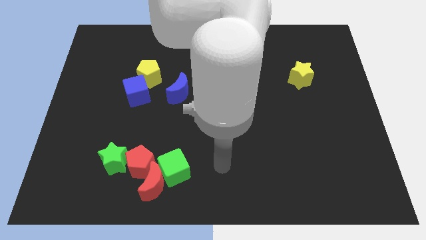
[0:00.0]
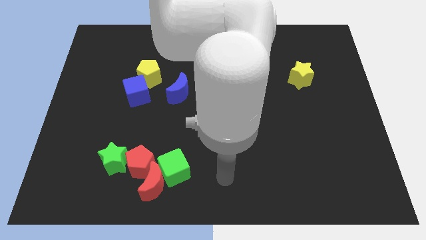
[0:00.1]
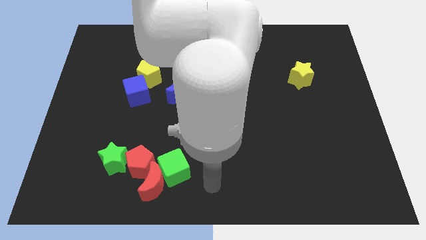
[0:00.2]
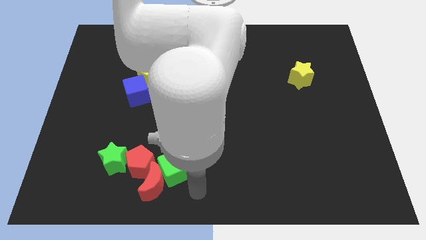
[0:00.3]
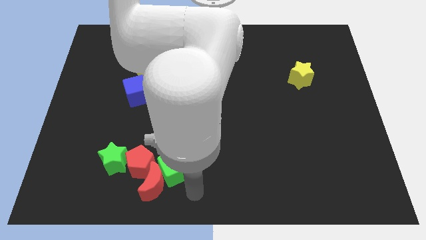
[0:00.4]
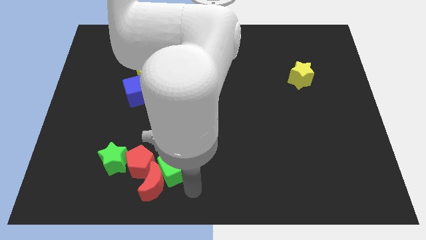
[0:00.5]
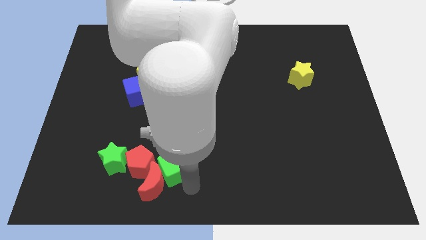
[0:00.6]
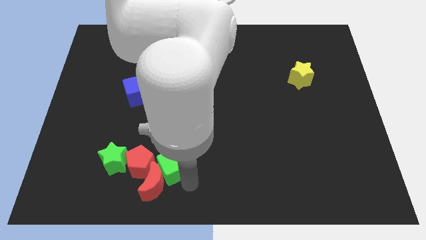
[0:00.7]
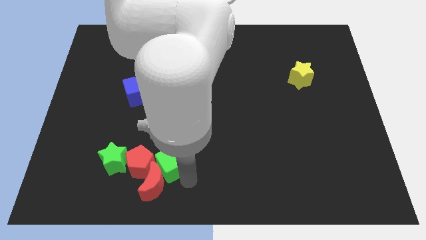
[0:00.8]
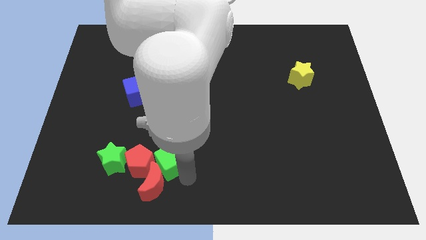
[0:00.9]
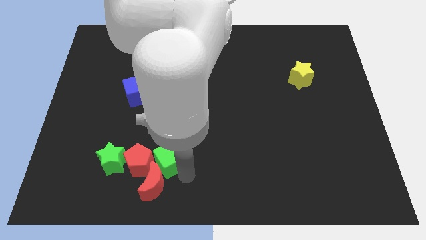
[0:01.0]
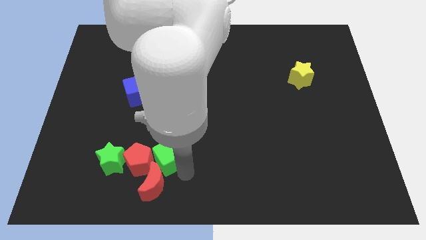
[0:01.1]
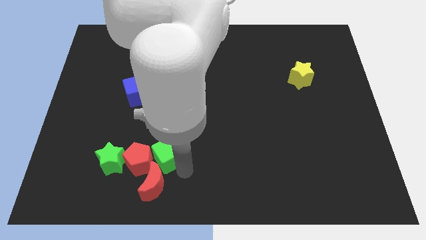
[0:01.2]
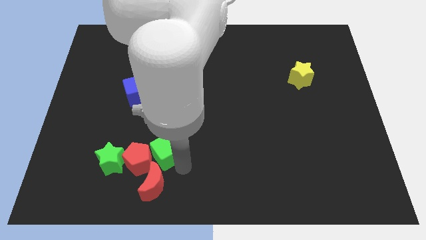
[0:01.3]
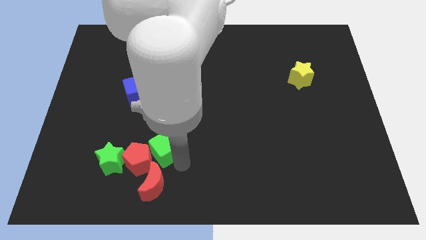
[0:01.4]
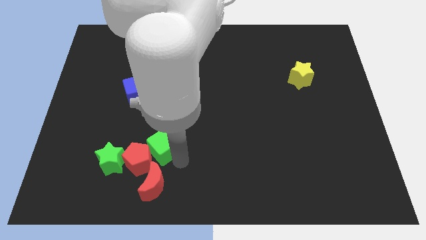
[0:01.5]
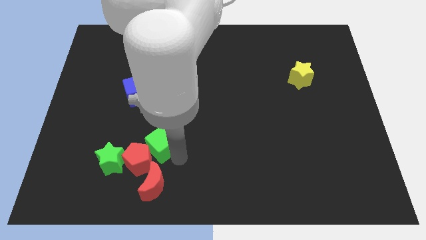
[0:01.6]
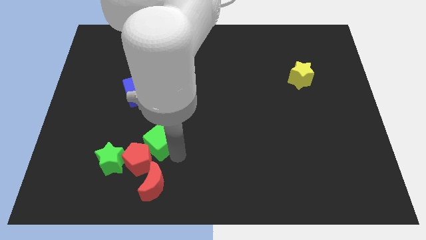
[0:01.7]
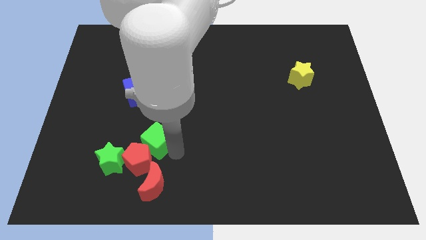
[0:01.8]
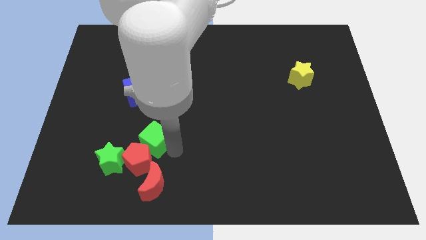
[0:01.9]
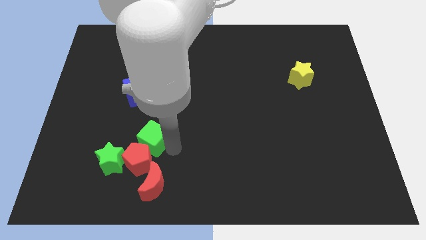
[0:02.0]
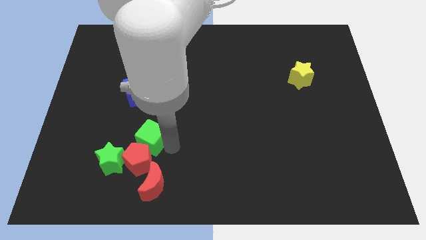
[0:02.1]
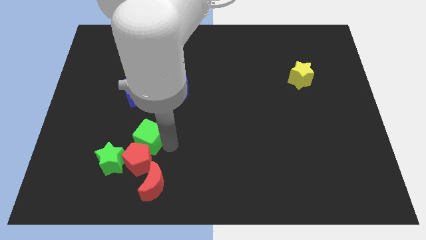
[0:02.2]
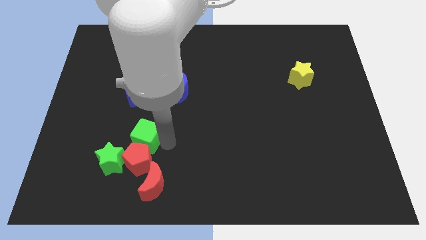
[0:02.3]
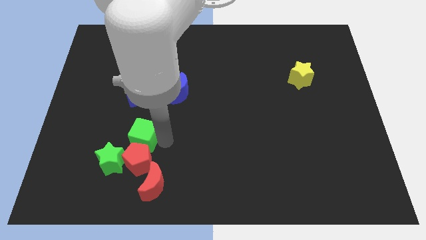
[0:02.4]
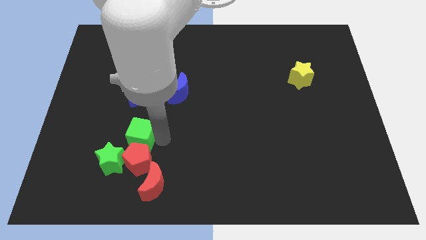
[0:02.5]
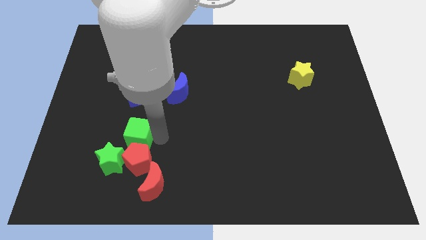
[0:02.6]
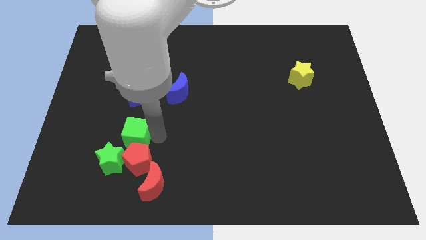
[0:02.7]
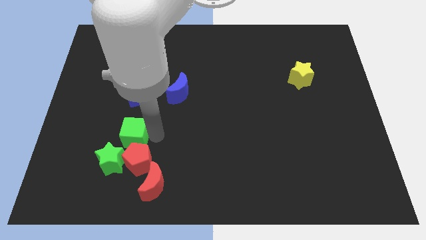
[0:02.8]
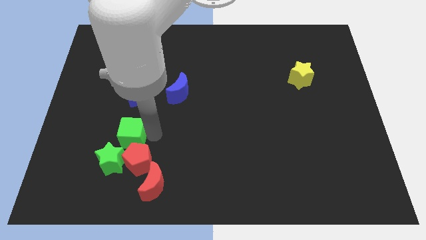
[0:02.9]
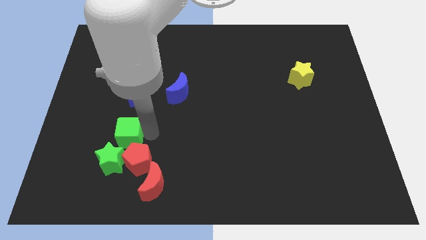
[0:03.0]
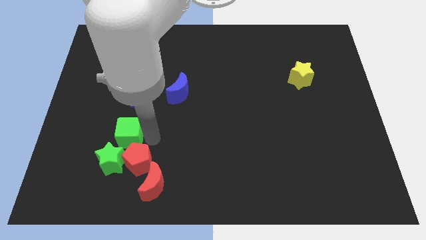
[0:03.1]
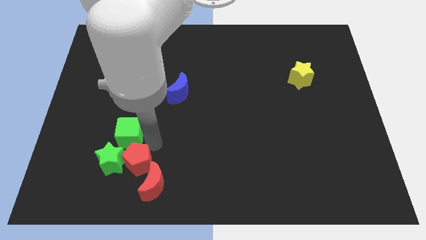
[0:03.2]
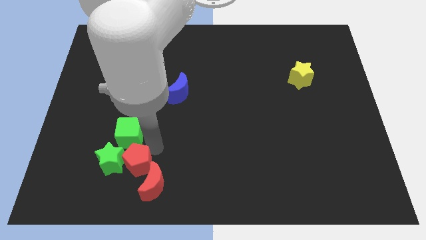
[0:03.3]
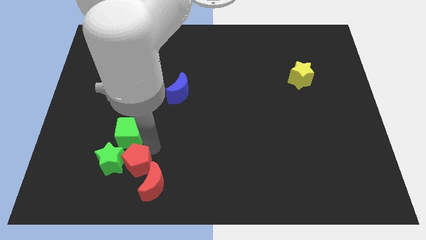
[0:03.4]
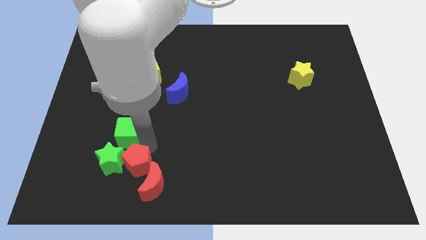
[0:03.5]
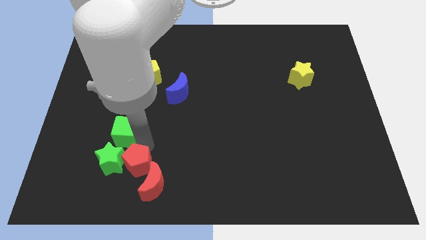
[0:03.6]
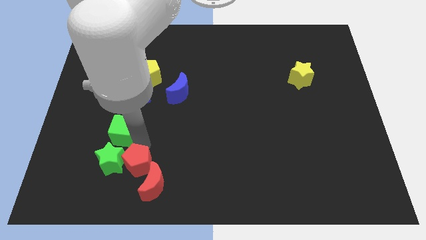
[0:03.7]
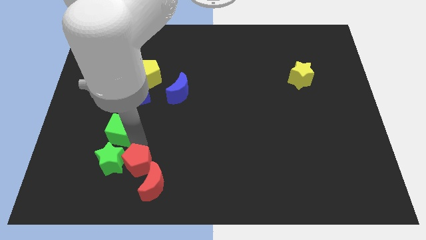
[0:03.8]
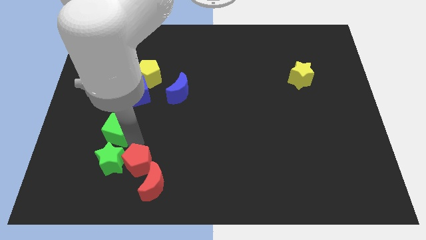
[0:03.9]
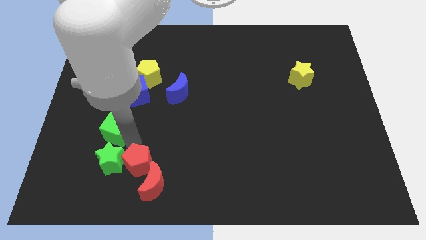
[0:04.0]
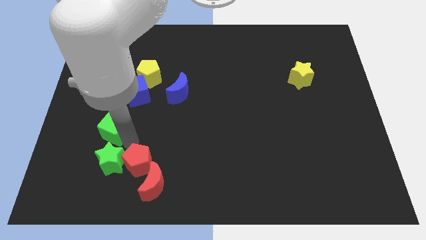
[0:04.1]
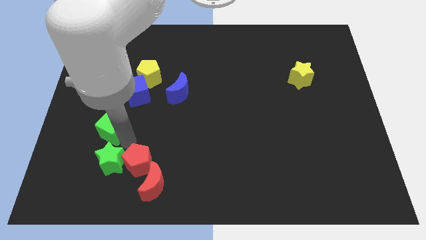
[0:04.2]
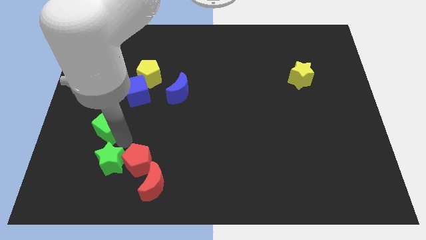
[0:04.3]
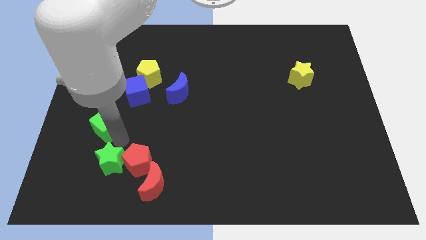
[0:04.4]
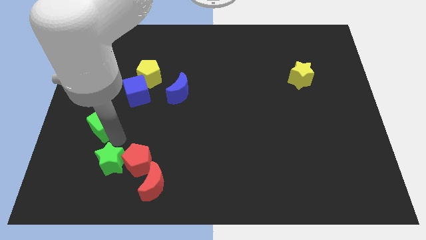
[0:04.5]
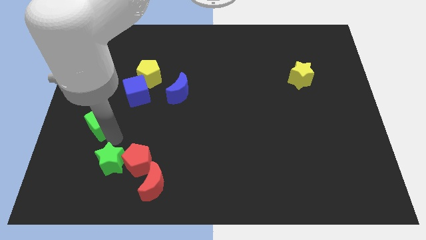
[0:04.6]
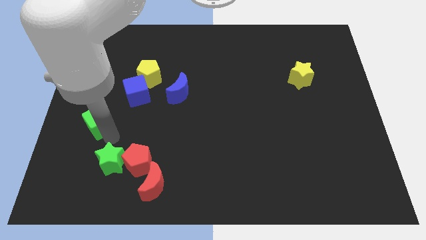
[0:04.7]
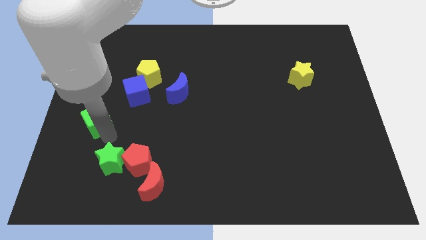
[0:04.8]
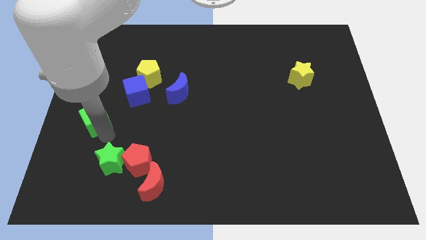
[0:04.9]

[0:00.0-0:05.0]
put the green cube to the left side

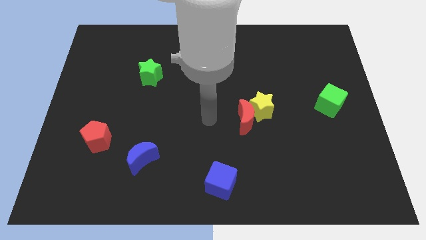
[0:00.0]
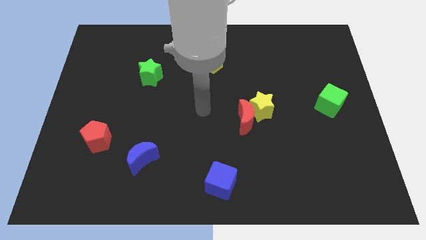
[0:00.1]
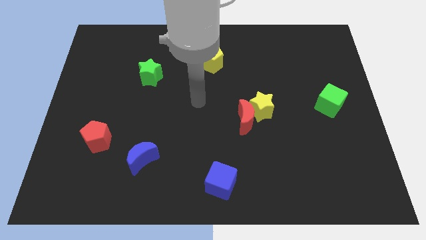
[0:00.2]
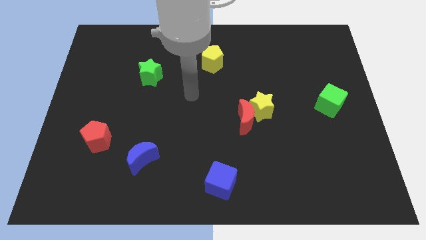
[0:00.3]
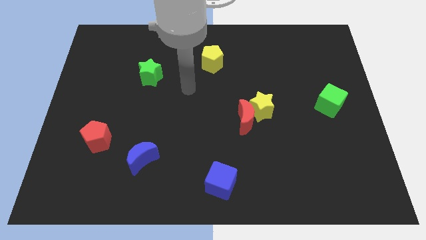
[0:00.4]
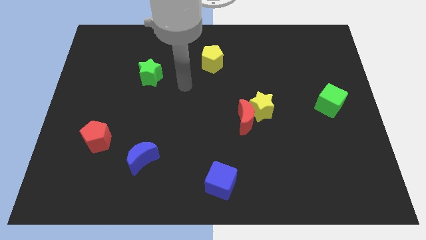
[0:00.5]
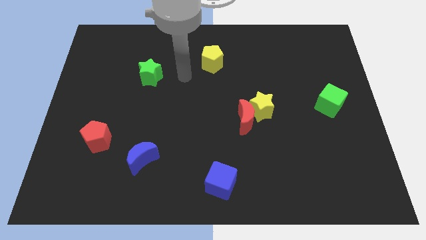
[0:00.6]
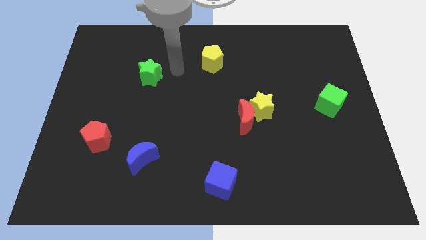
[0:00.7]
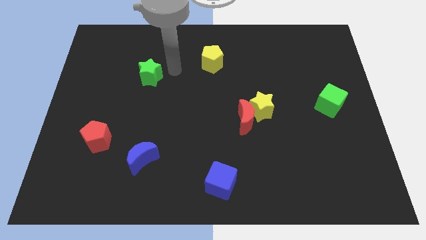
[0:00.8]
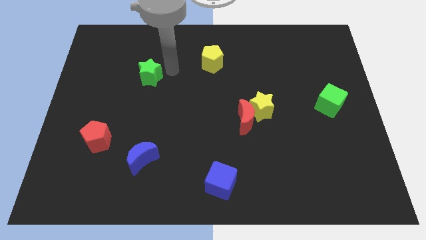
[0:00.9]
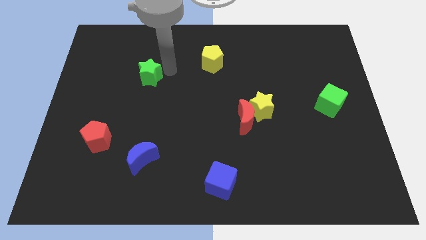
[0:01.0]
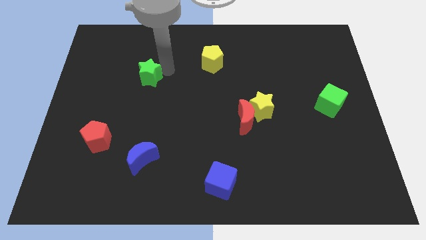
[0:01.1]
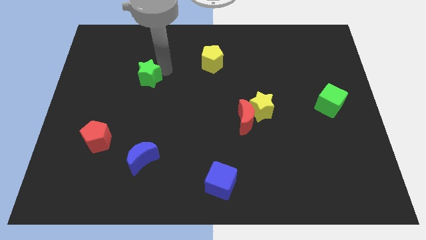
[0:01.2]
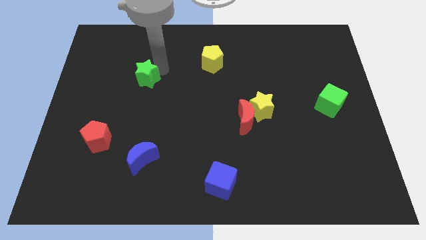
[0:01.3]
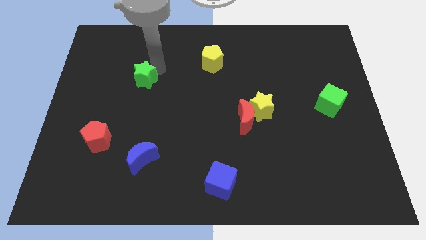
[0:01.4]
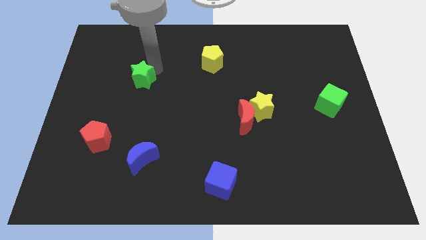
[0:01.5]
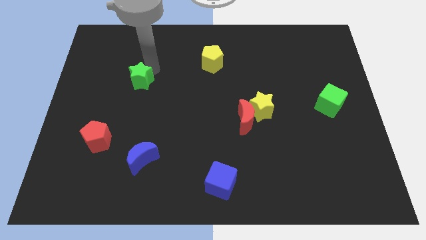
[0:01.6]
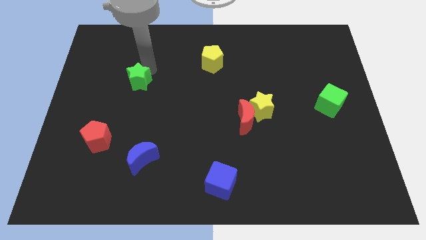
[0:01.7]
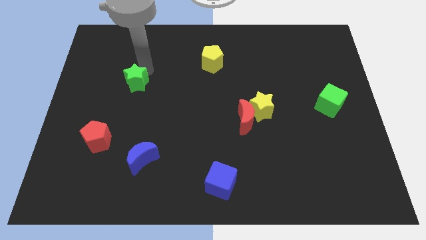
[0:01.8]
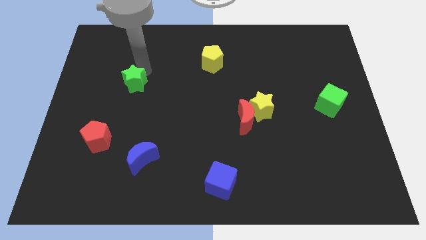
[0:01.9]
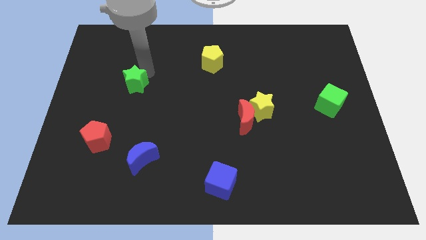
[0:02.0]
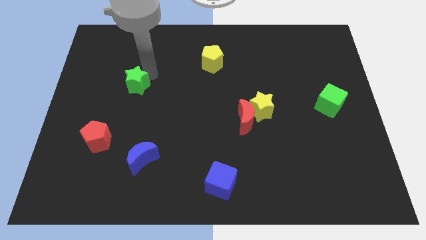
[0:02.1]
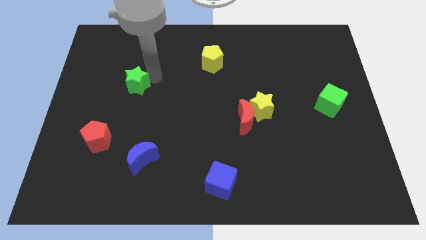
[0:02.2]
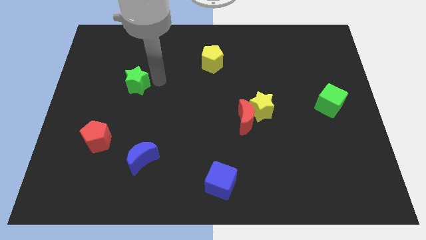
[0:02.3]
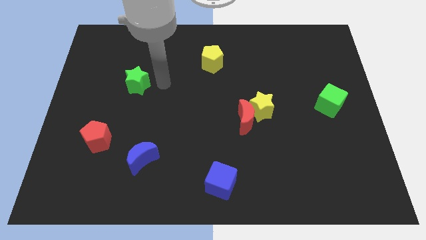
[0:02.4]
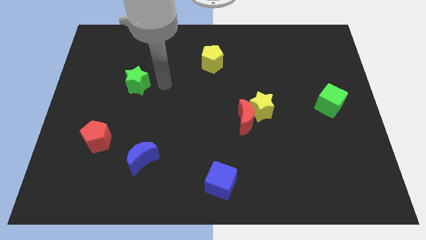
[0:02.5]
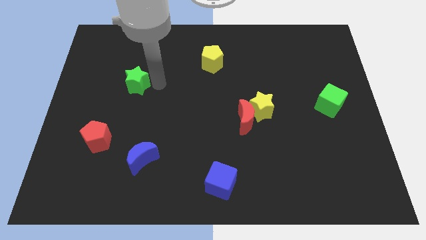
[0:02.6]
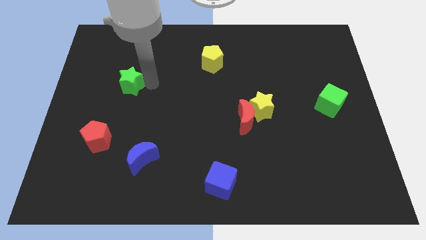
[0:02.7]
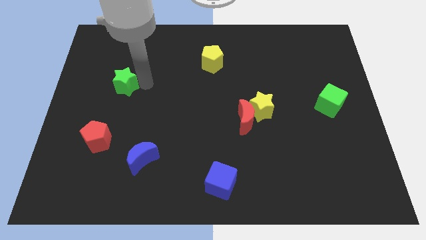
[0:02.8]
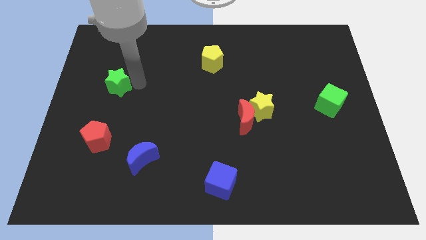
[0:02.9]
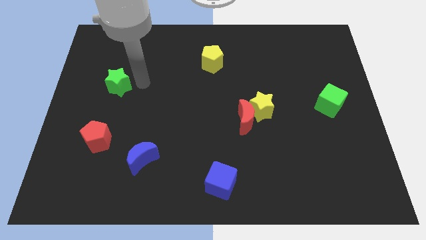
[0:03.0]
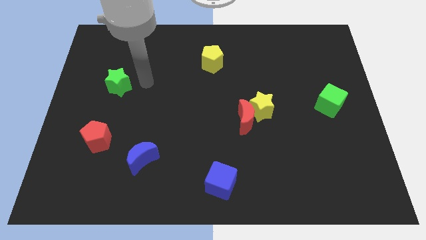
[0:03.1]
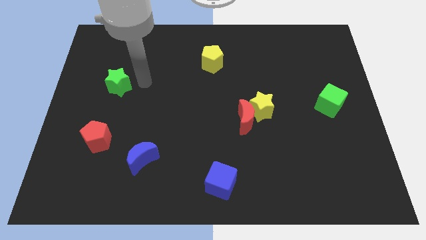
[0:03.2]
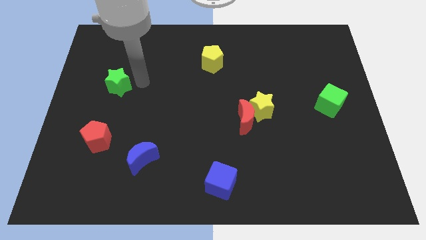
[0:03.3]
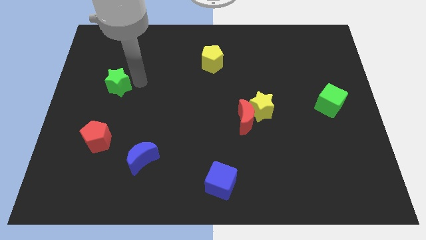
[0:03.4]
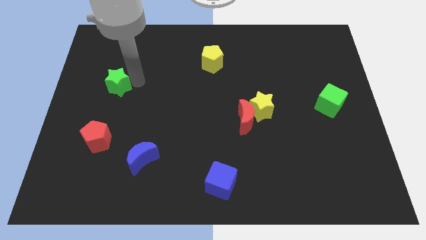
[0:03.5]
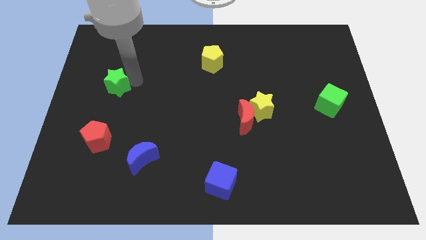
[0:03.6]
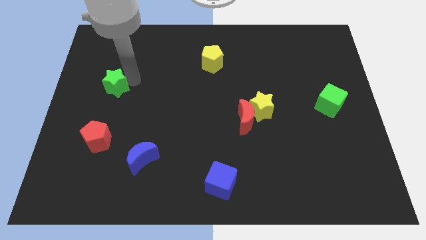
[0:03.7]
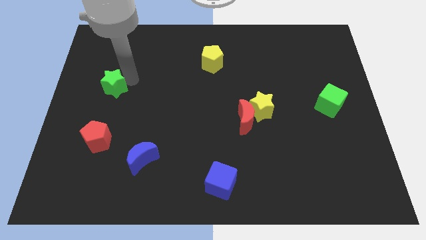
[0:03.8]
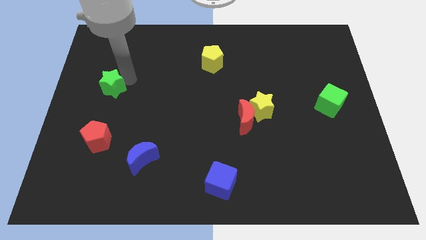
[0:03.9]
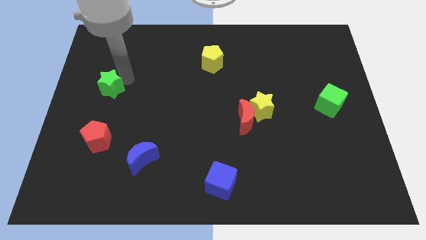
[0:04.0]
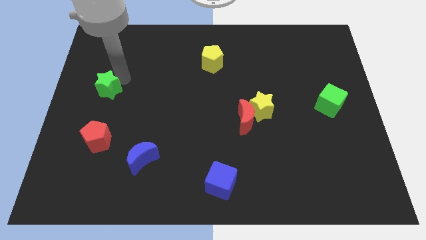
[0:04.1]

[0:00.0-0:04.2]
slide the green star to the center left
